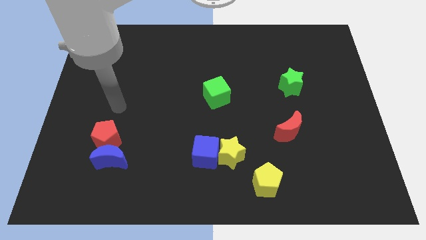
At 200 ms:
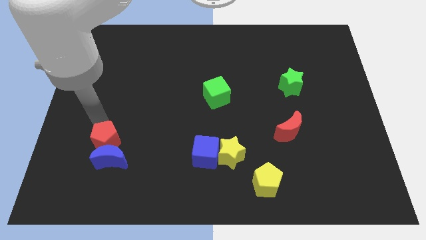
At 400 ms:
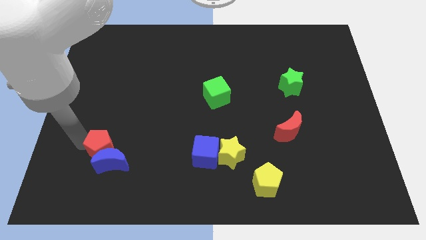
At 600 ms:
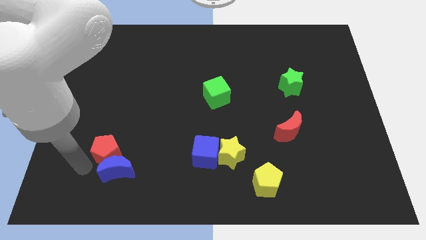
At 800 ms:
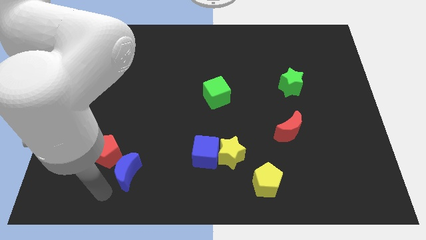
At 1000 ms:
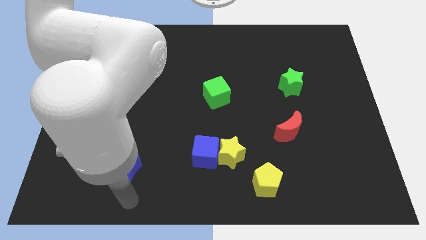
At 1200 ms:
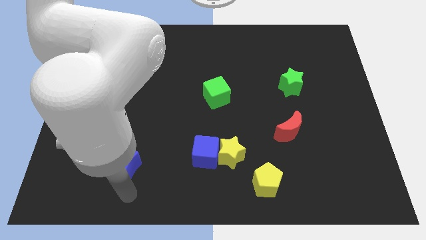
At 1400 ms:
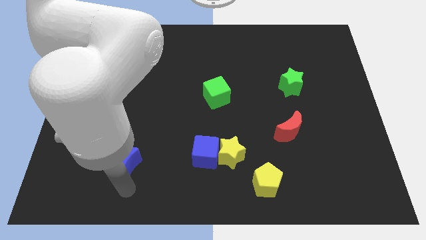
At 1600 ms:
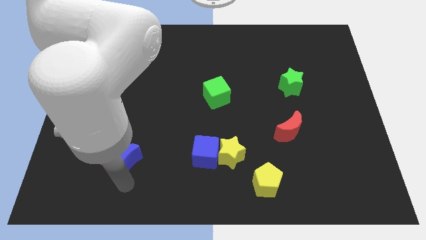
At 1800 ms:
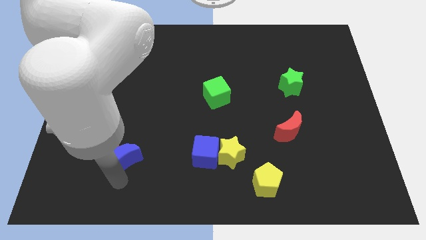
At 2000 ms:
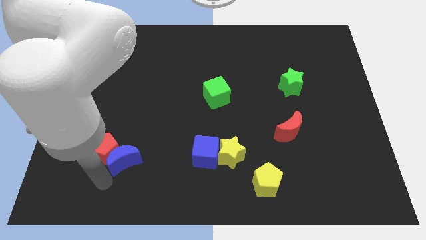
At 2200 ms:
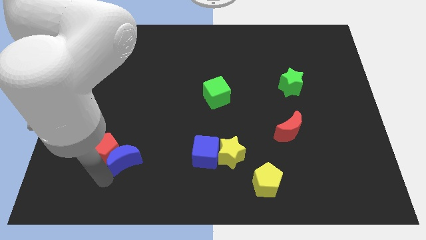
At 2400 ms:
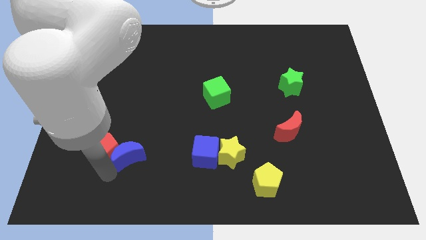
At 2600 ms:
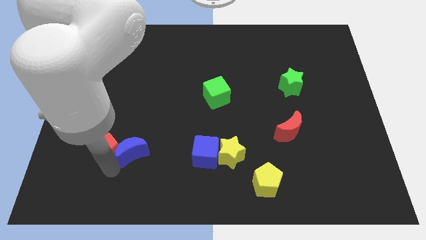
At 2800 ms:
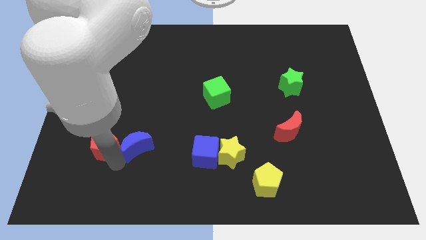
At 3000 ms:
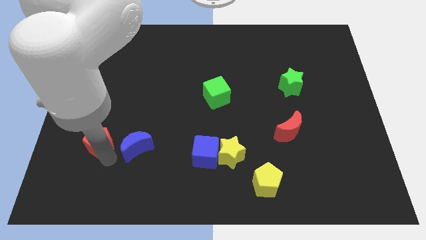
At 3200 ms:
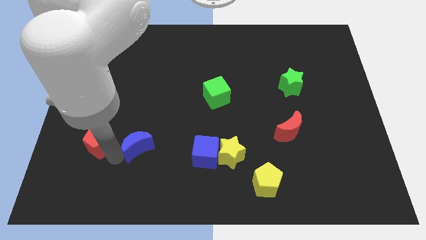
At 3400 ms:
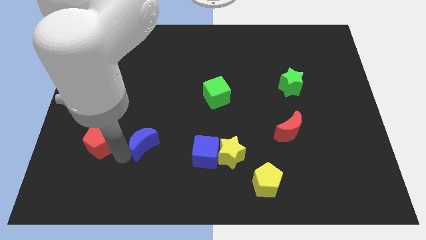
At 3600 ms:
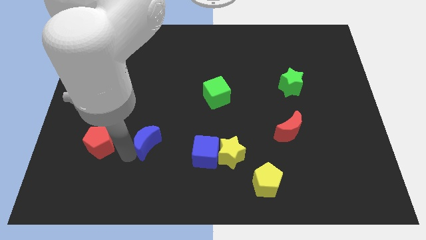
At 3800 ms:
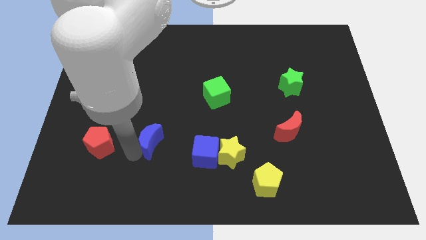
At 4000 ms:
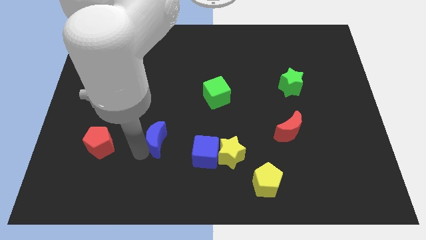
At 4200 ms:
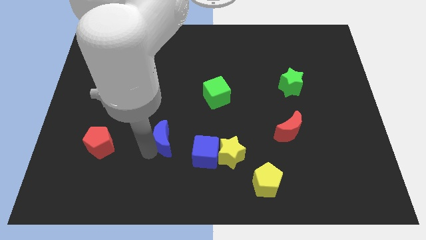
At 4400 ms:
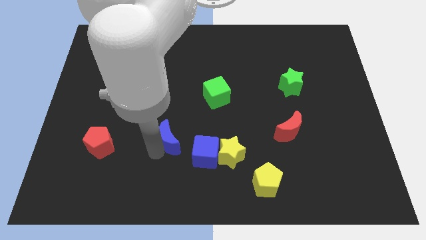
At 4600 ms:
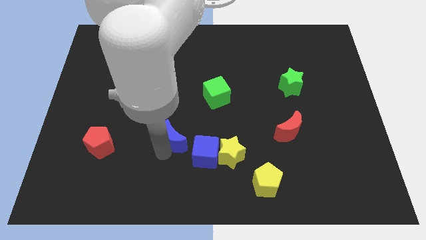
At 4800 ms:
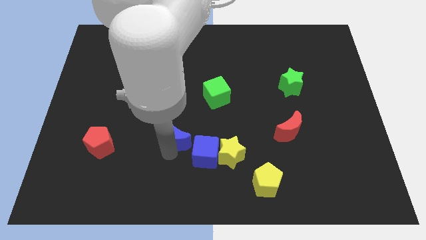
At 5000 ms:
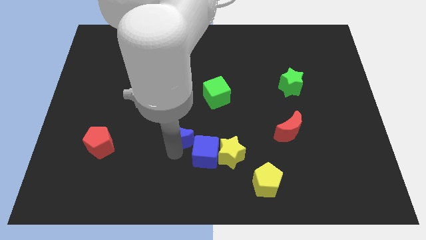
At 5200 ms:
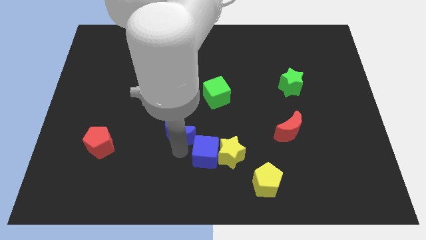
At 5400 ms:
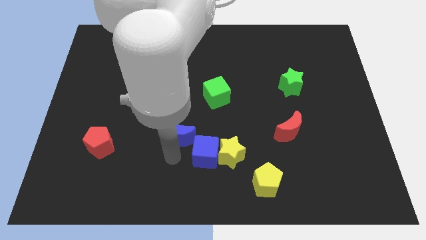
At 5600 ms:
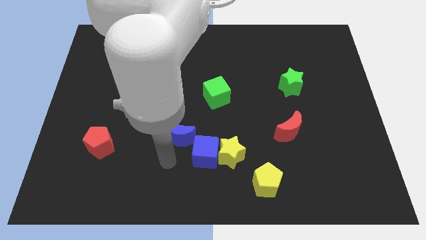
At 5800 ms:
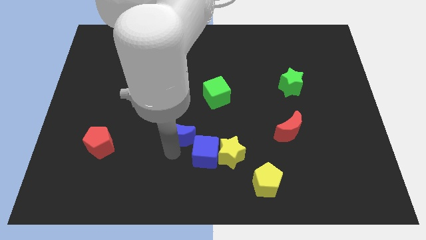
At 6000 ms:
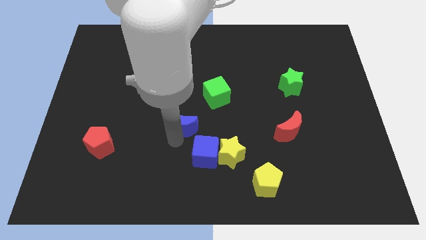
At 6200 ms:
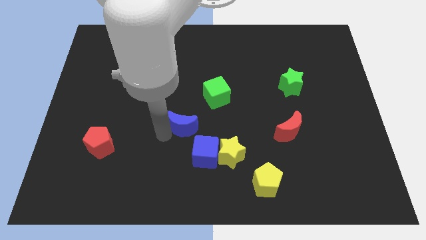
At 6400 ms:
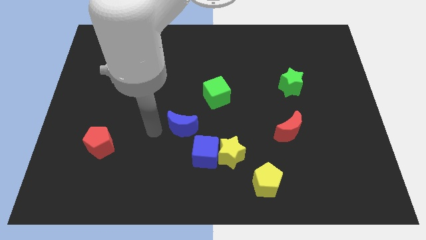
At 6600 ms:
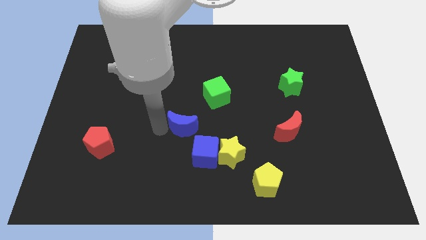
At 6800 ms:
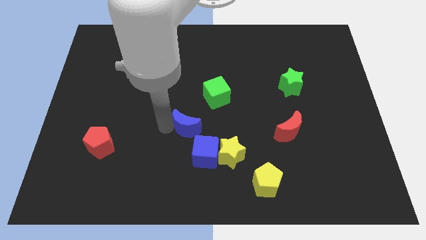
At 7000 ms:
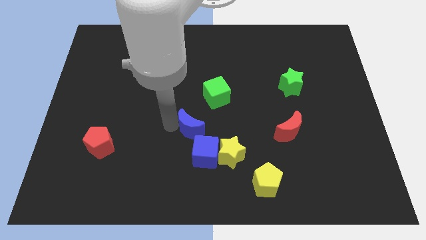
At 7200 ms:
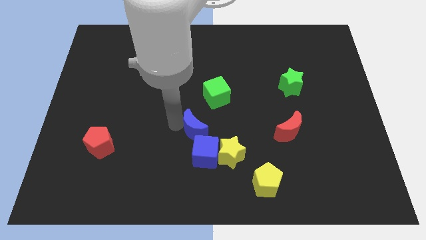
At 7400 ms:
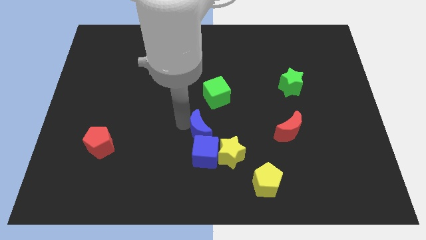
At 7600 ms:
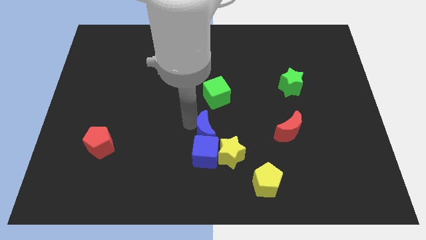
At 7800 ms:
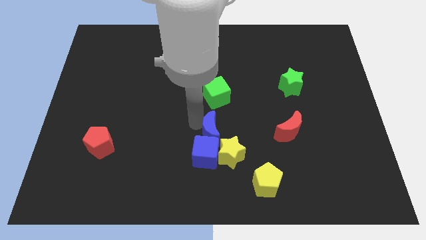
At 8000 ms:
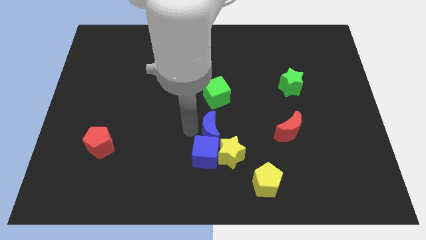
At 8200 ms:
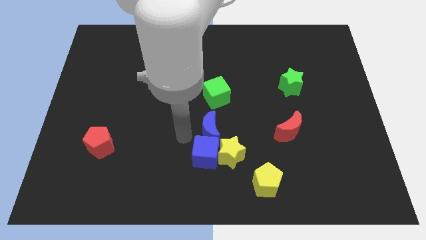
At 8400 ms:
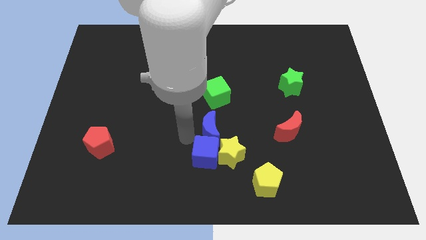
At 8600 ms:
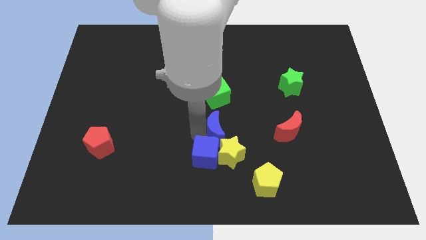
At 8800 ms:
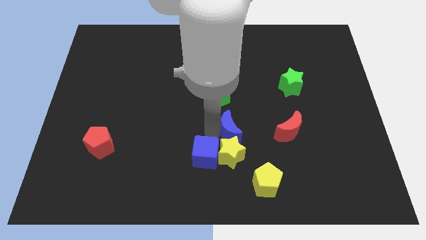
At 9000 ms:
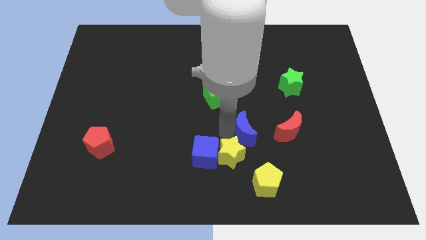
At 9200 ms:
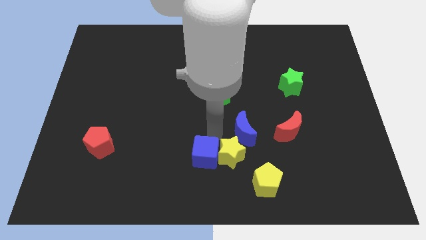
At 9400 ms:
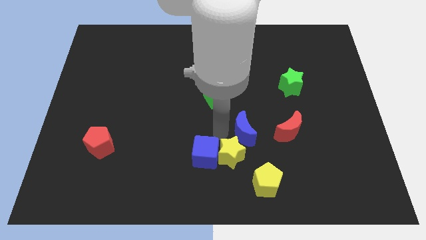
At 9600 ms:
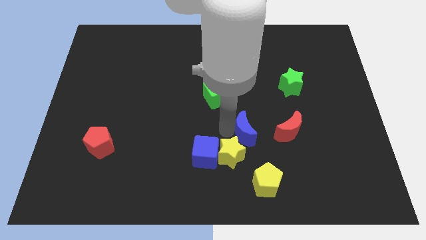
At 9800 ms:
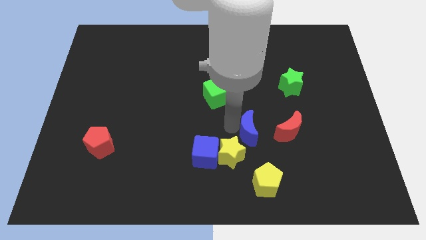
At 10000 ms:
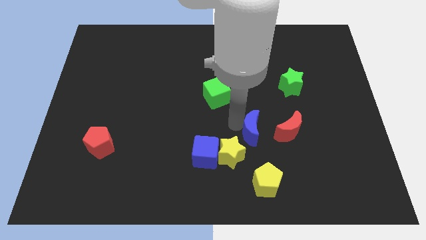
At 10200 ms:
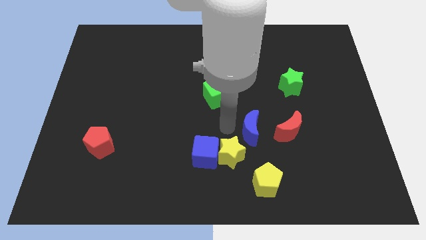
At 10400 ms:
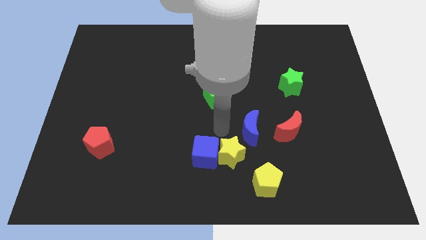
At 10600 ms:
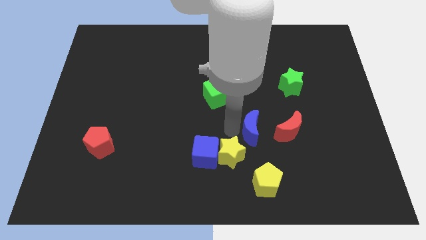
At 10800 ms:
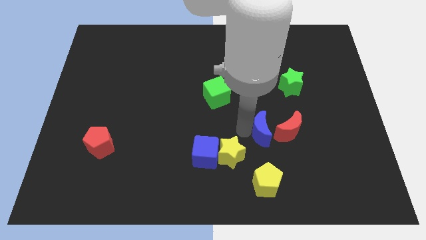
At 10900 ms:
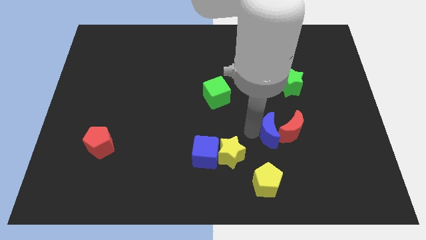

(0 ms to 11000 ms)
move the blue moon next to the red moon

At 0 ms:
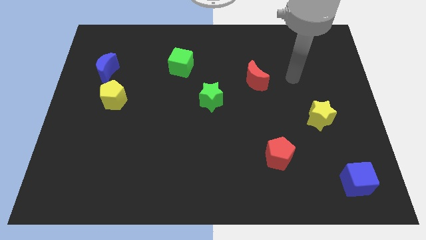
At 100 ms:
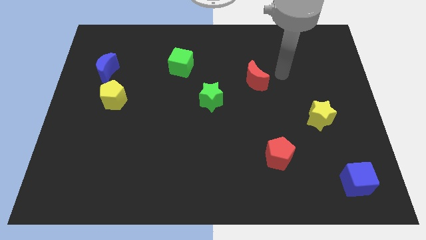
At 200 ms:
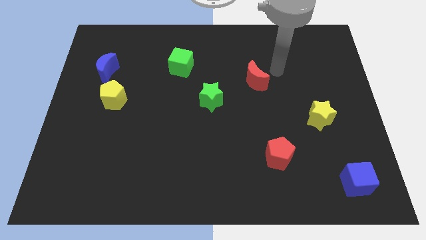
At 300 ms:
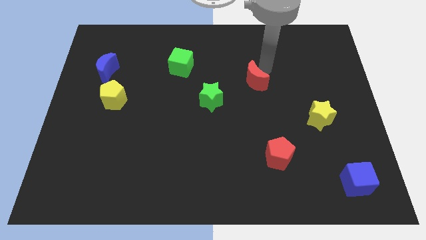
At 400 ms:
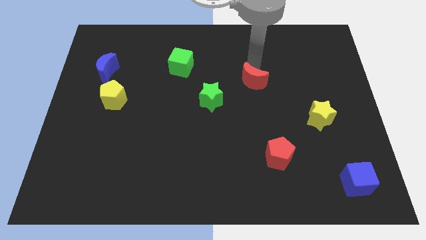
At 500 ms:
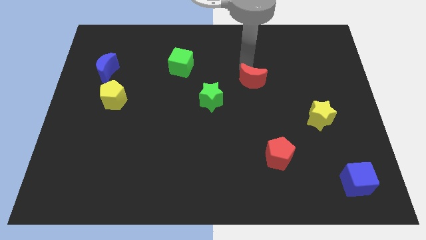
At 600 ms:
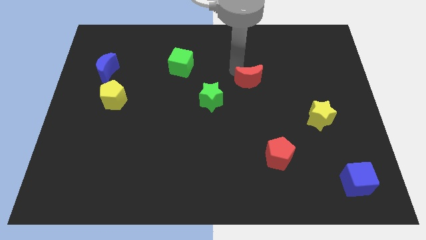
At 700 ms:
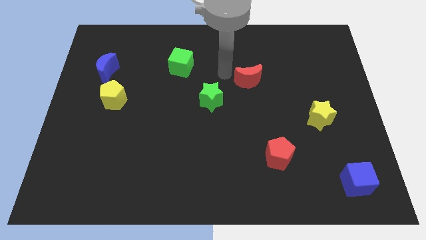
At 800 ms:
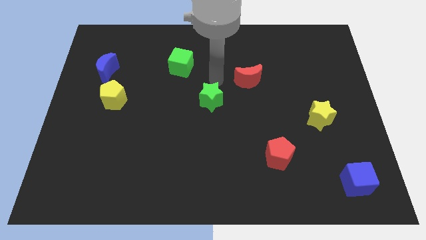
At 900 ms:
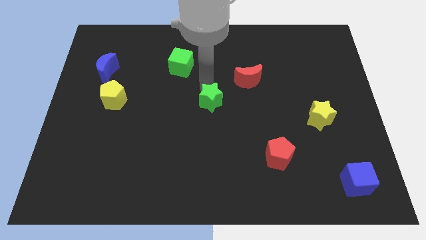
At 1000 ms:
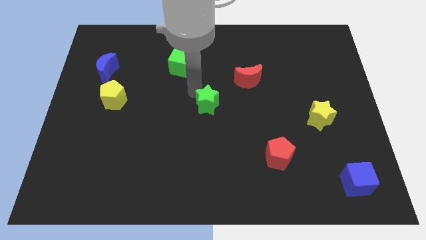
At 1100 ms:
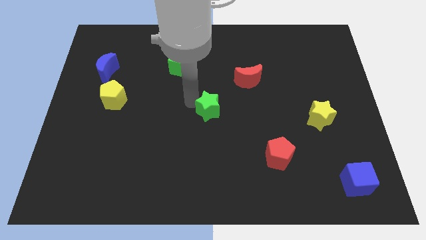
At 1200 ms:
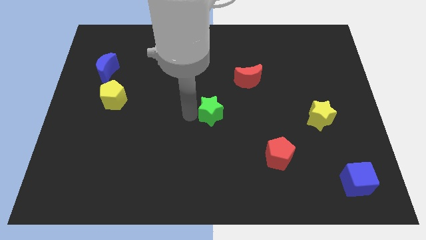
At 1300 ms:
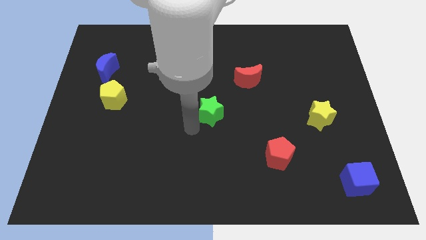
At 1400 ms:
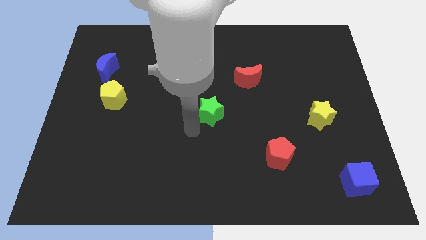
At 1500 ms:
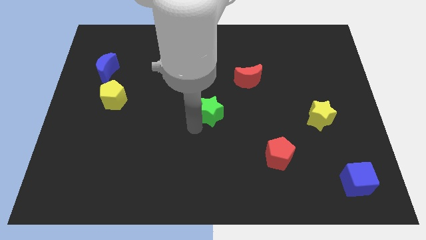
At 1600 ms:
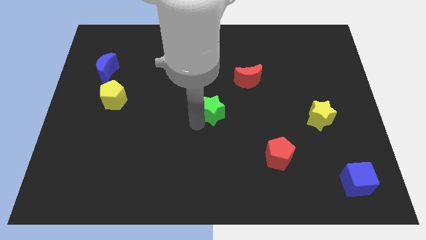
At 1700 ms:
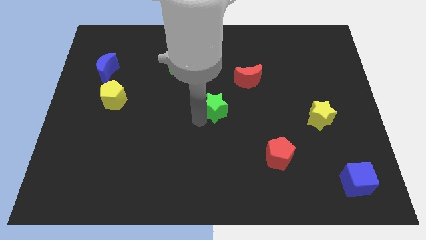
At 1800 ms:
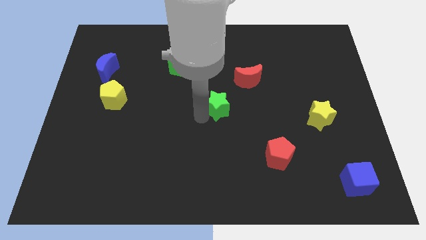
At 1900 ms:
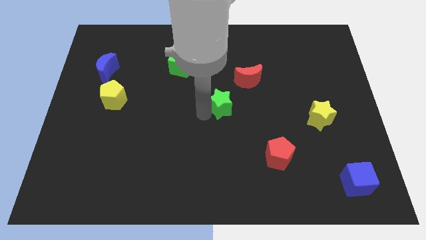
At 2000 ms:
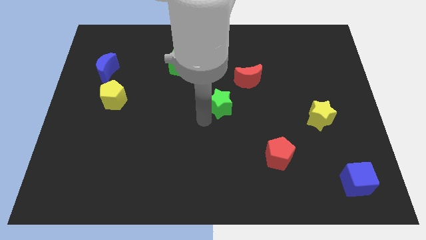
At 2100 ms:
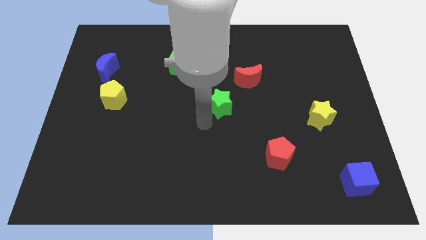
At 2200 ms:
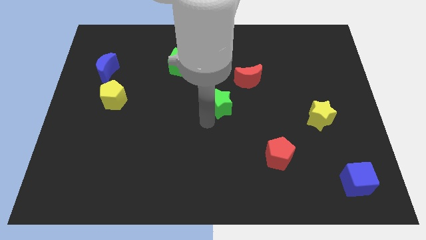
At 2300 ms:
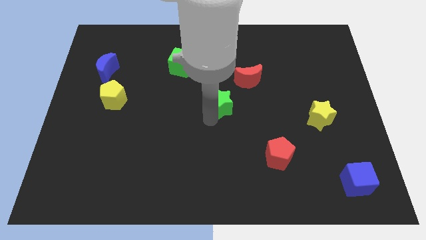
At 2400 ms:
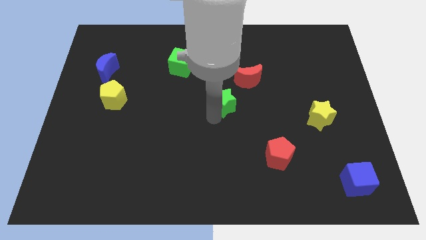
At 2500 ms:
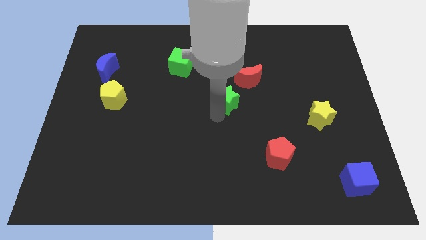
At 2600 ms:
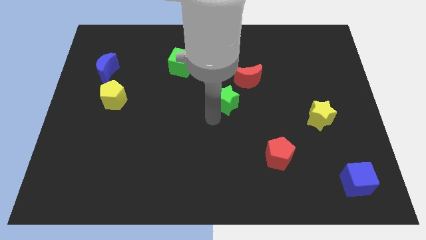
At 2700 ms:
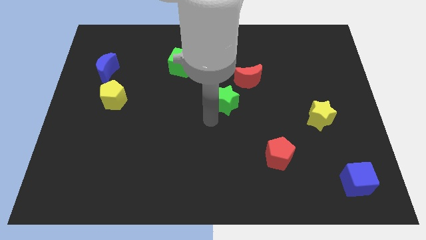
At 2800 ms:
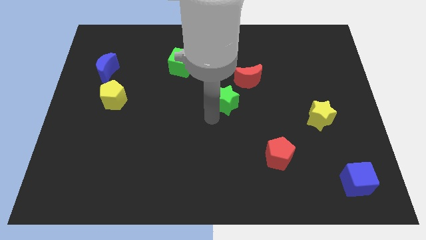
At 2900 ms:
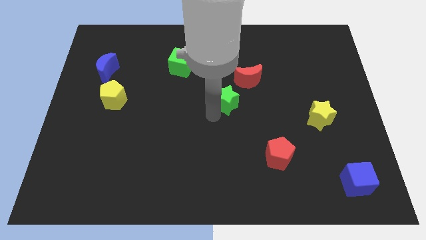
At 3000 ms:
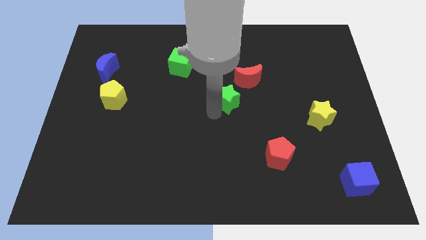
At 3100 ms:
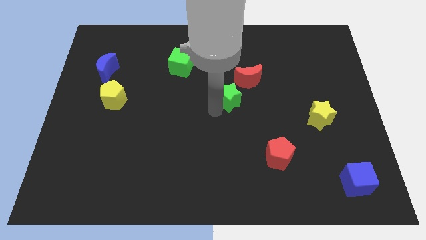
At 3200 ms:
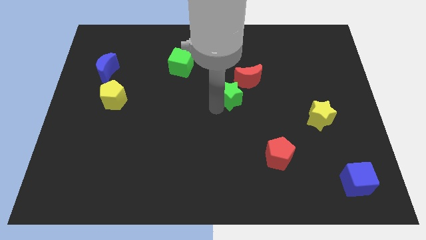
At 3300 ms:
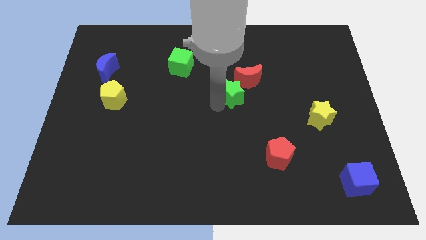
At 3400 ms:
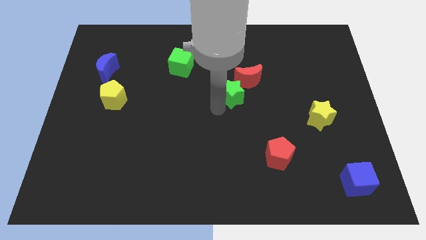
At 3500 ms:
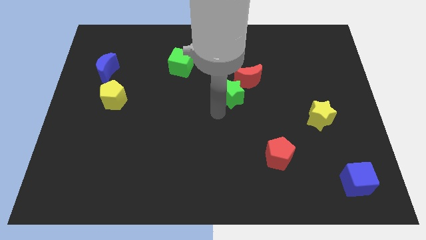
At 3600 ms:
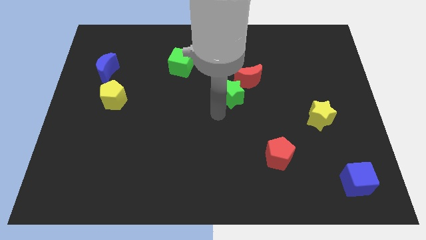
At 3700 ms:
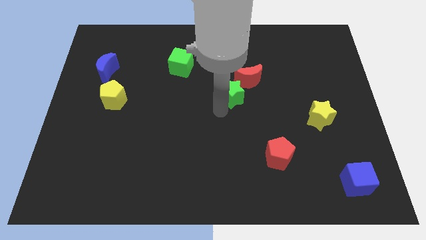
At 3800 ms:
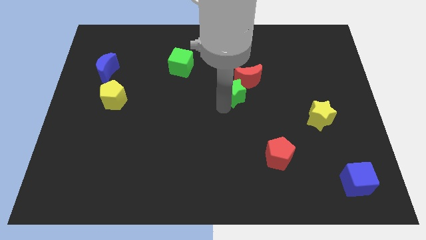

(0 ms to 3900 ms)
slide the green star to the red moon
